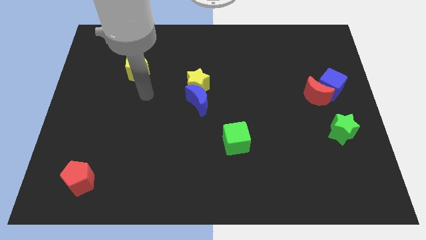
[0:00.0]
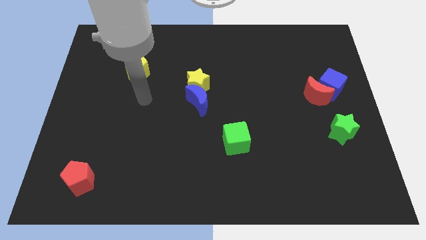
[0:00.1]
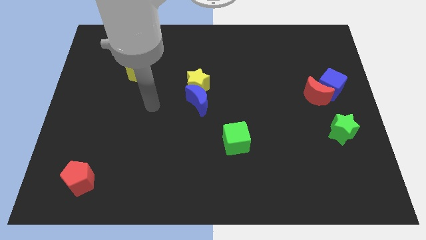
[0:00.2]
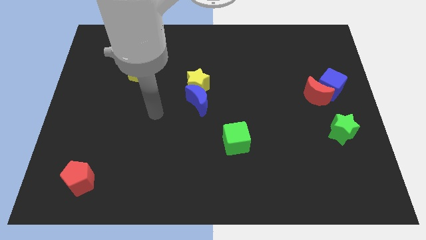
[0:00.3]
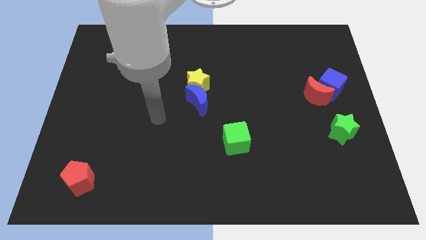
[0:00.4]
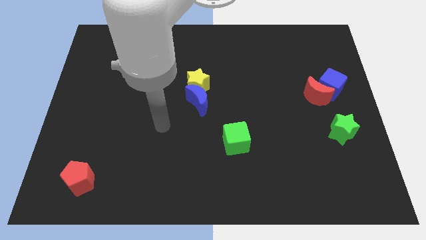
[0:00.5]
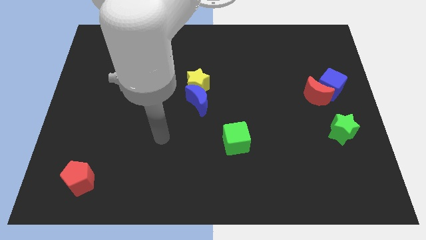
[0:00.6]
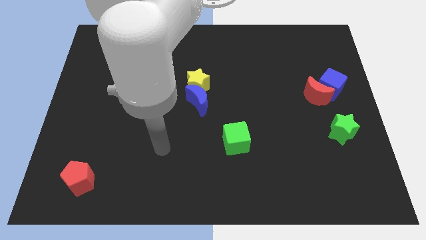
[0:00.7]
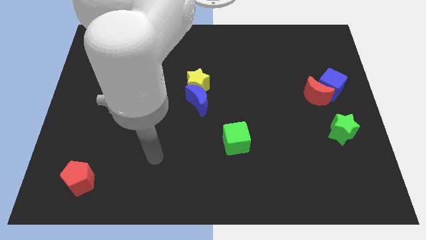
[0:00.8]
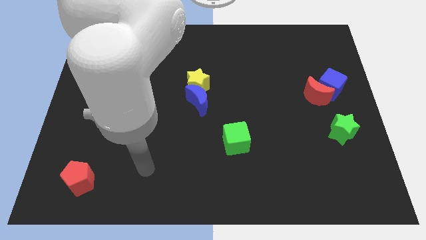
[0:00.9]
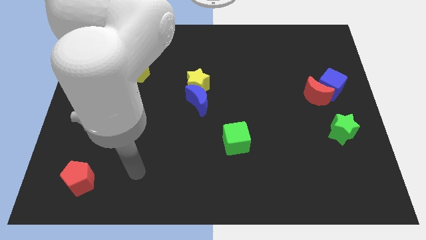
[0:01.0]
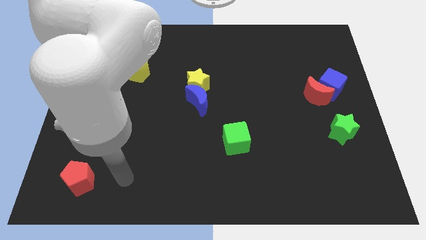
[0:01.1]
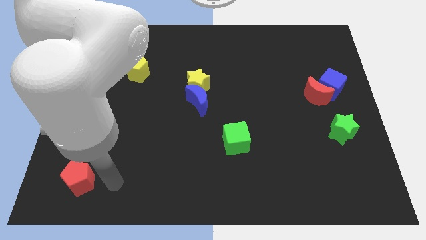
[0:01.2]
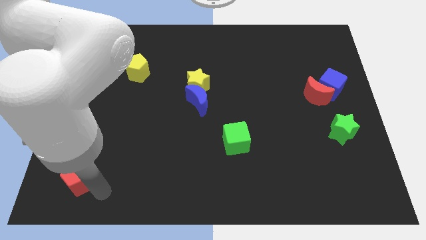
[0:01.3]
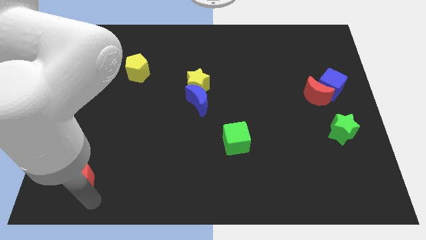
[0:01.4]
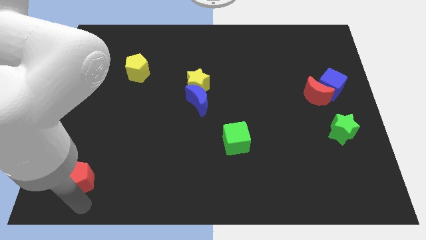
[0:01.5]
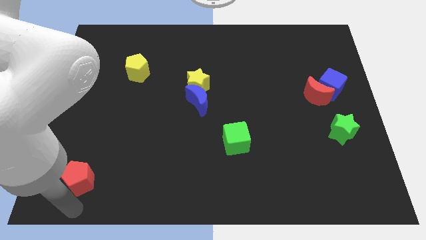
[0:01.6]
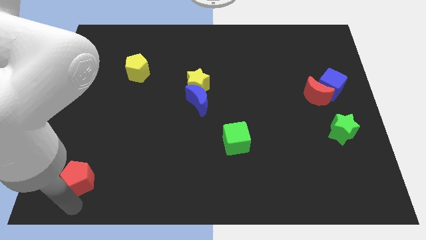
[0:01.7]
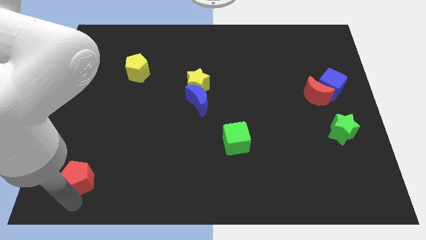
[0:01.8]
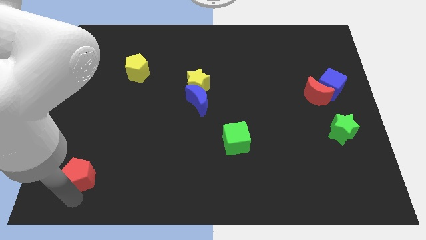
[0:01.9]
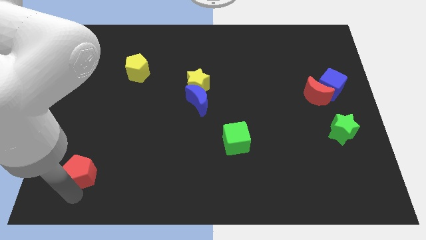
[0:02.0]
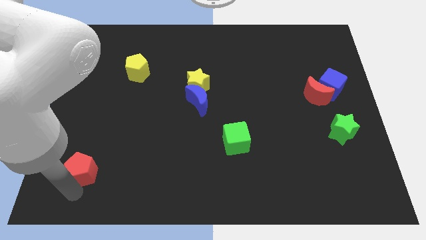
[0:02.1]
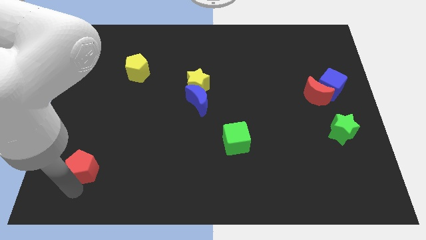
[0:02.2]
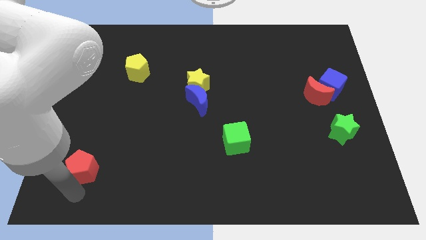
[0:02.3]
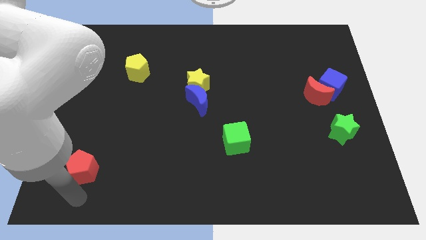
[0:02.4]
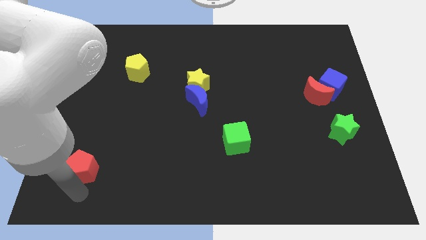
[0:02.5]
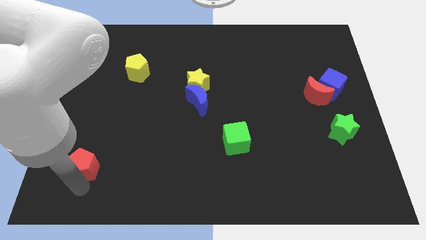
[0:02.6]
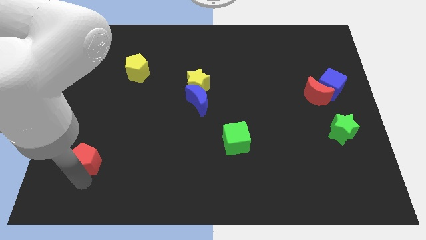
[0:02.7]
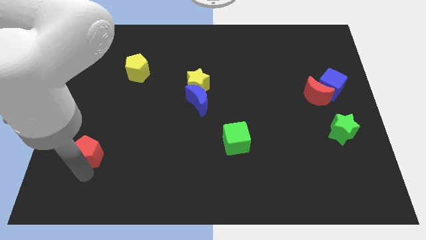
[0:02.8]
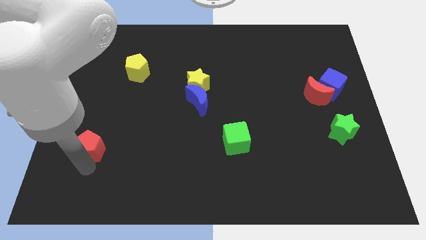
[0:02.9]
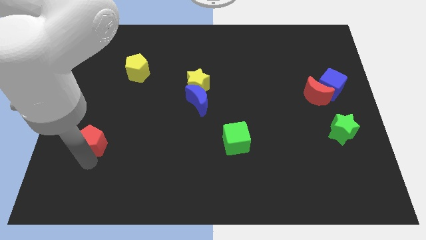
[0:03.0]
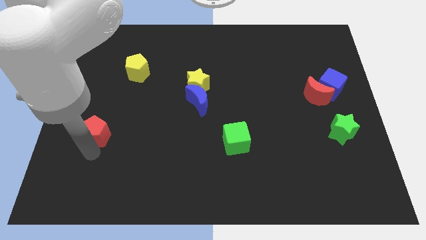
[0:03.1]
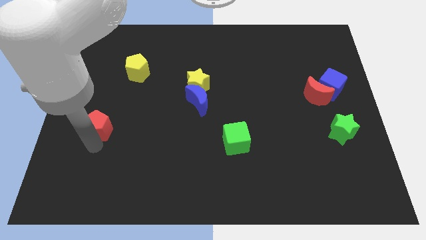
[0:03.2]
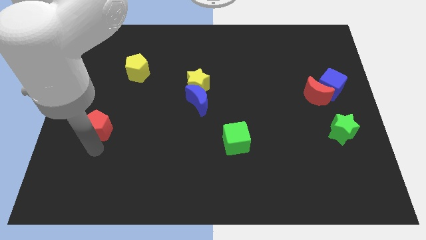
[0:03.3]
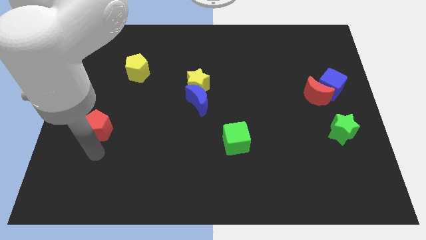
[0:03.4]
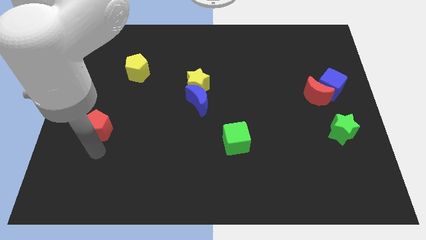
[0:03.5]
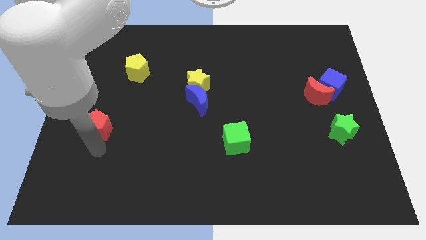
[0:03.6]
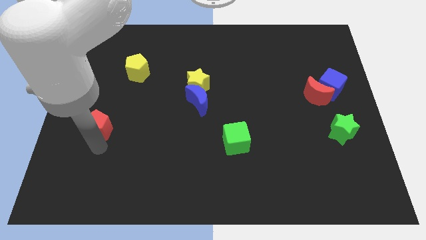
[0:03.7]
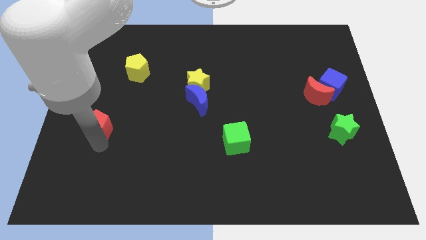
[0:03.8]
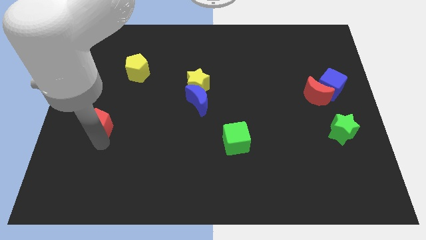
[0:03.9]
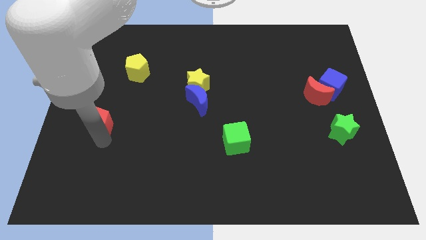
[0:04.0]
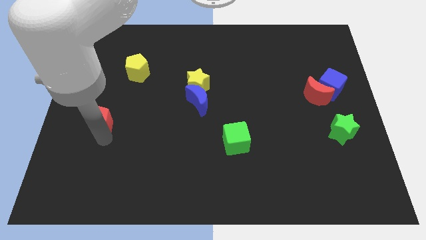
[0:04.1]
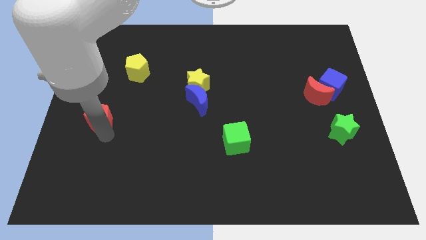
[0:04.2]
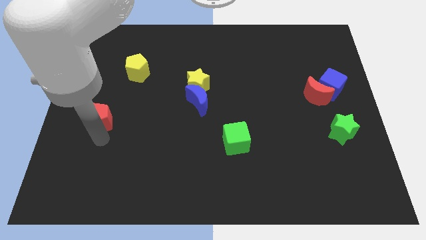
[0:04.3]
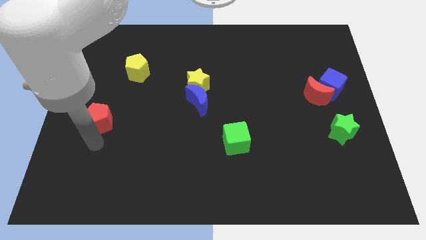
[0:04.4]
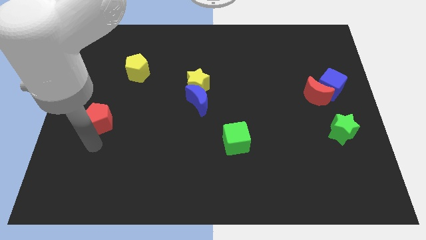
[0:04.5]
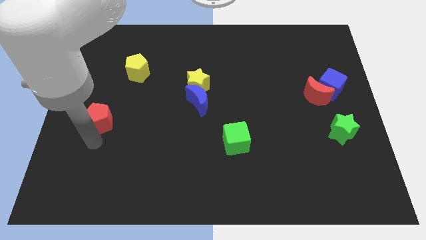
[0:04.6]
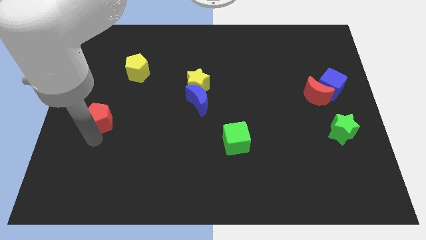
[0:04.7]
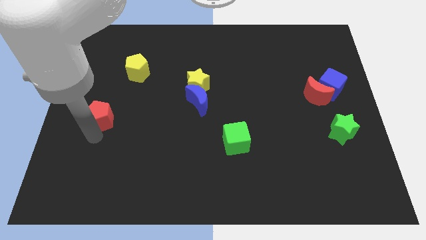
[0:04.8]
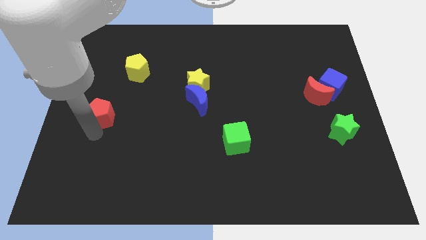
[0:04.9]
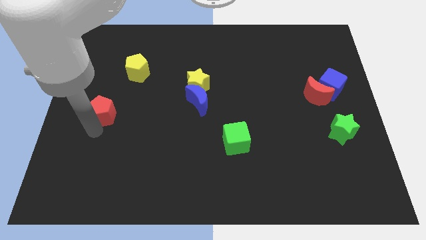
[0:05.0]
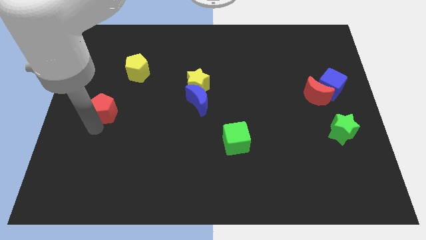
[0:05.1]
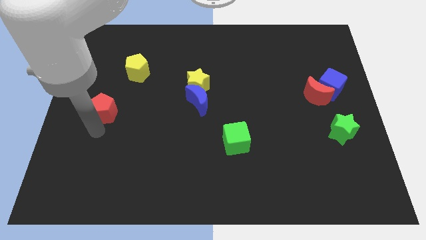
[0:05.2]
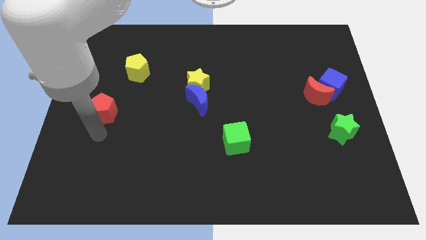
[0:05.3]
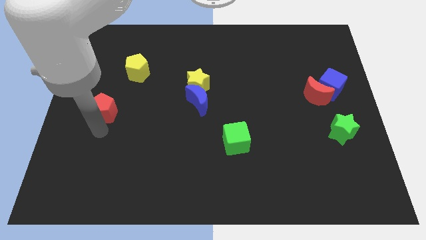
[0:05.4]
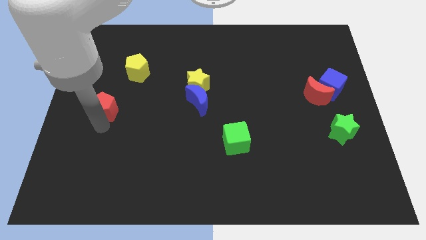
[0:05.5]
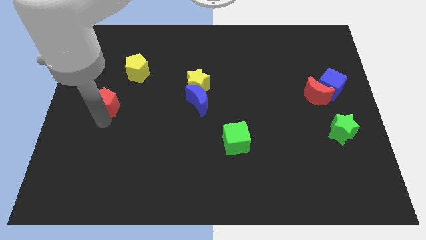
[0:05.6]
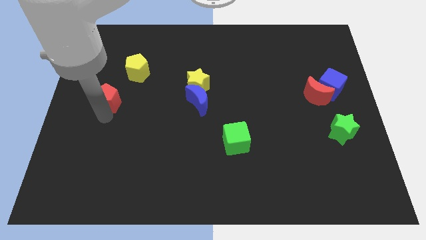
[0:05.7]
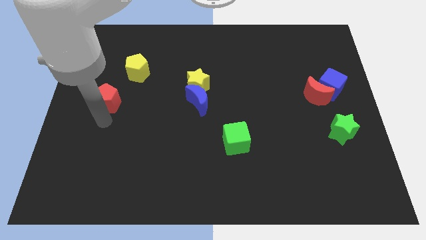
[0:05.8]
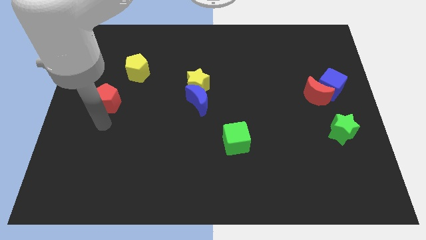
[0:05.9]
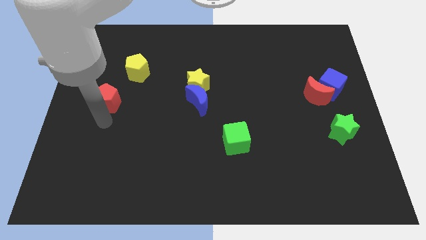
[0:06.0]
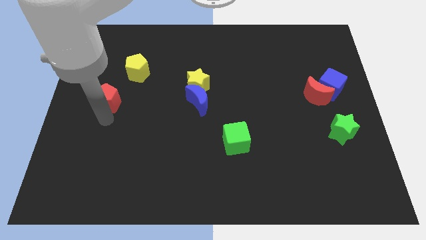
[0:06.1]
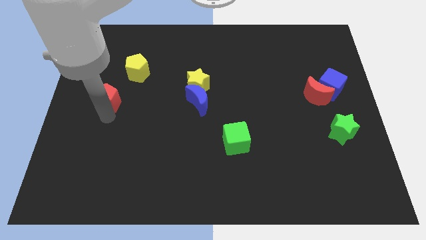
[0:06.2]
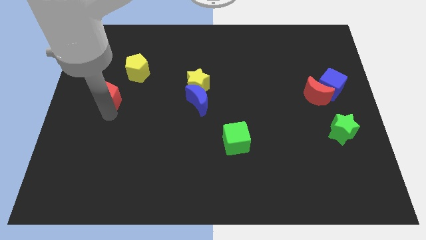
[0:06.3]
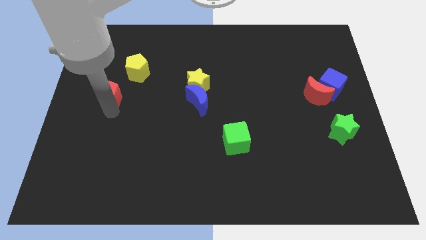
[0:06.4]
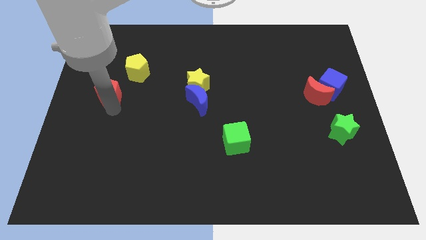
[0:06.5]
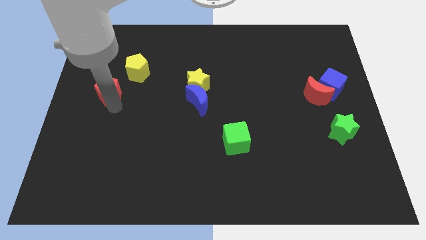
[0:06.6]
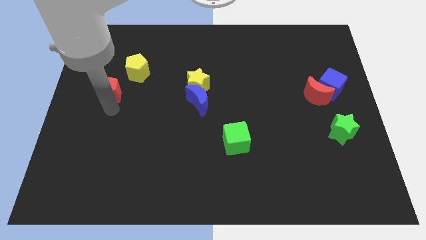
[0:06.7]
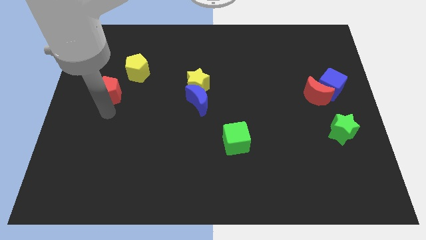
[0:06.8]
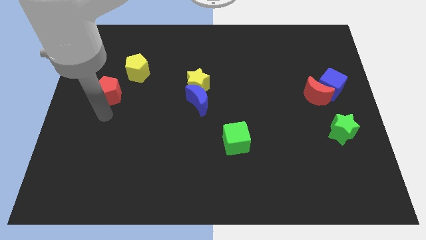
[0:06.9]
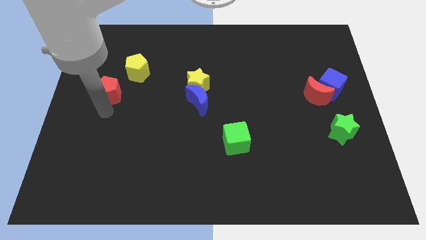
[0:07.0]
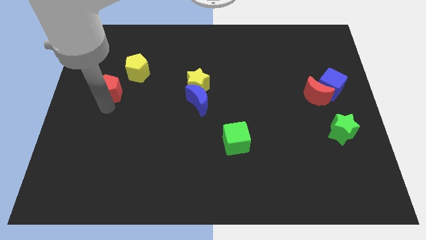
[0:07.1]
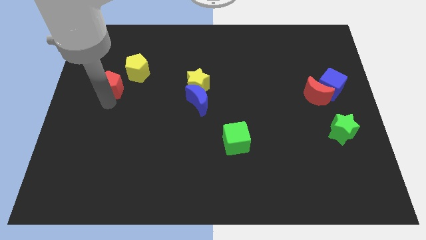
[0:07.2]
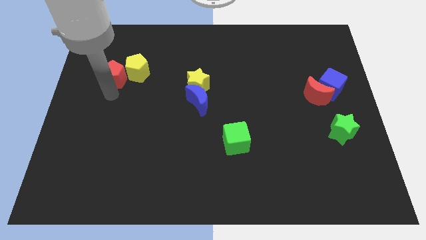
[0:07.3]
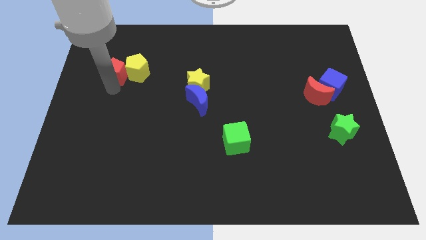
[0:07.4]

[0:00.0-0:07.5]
push the red pentagon to the top left side of the yellow pentagon
